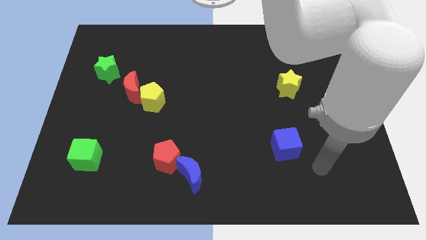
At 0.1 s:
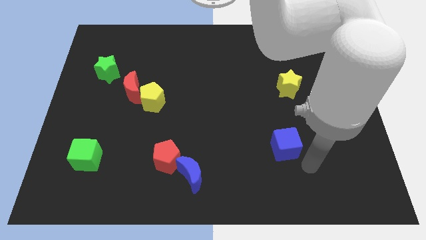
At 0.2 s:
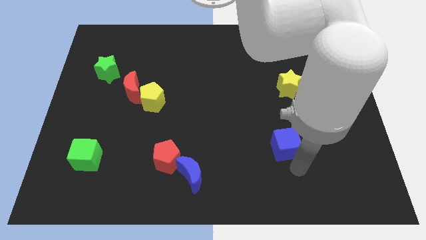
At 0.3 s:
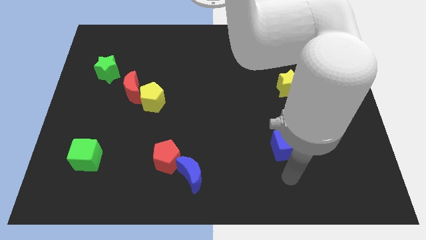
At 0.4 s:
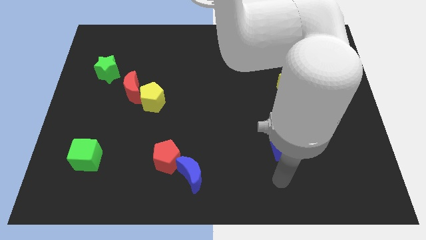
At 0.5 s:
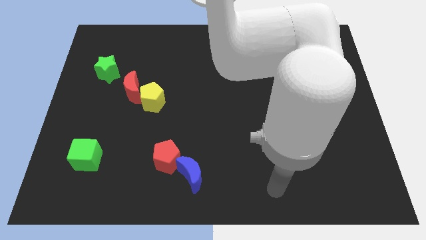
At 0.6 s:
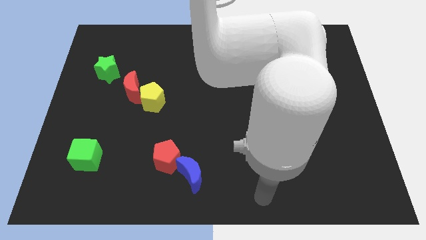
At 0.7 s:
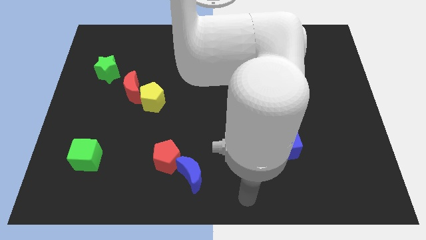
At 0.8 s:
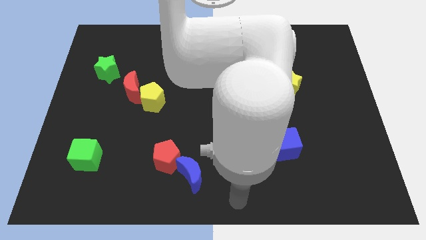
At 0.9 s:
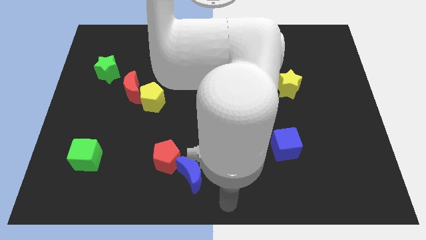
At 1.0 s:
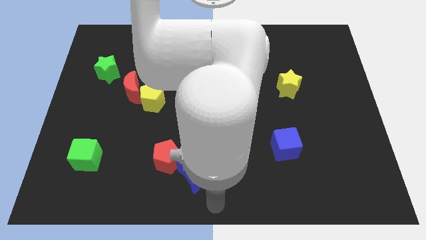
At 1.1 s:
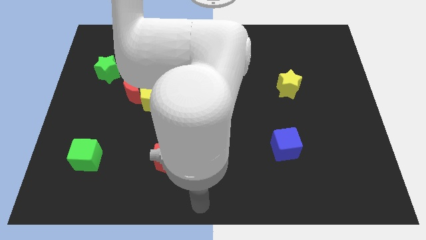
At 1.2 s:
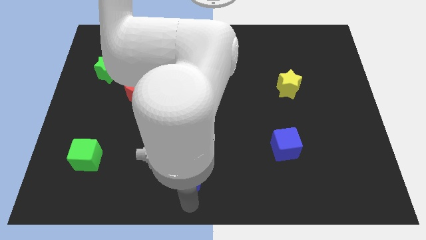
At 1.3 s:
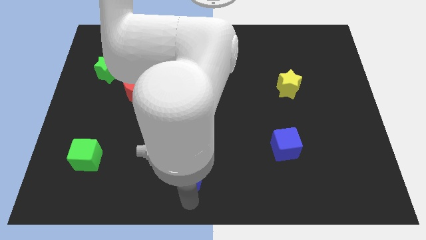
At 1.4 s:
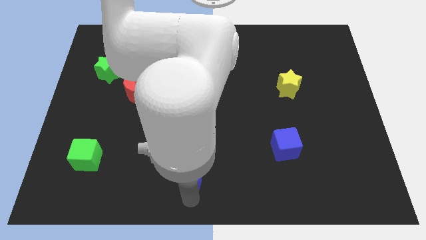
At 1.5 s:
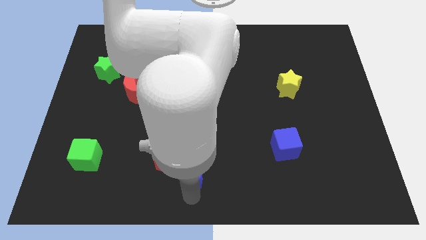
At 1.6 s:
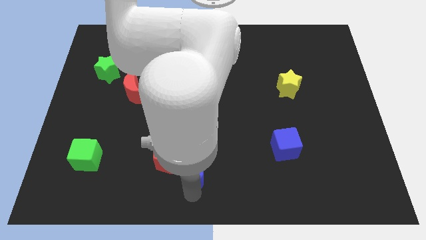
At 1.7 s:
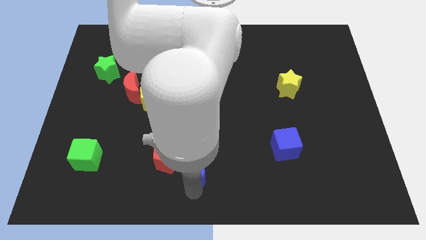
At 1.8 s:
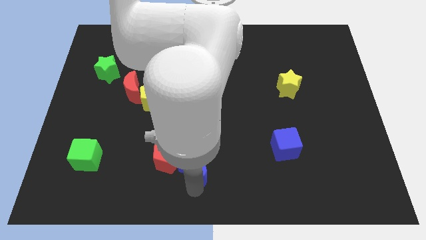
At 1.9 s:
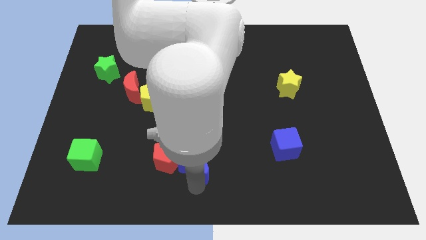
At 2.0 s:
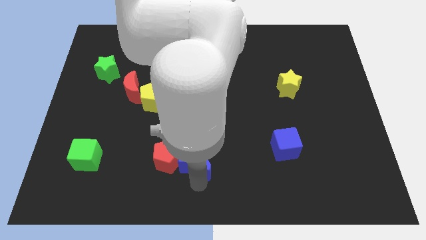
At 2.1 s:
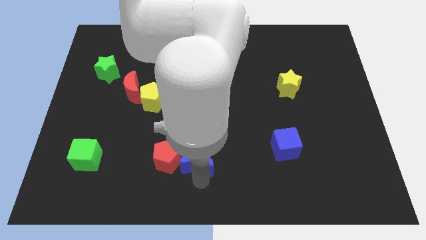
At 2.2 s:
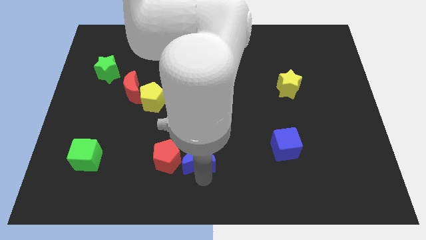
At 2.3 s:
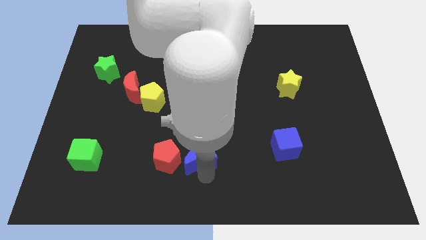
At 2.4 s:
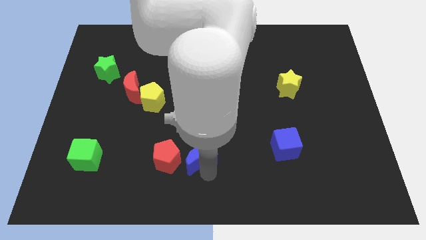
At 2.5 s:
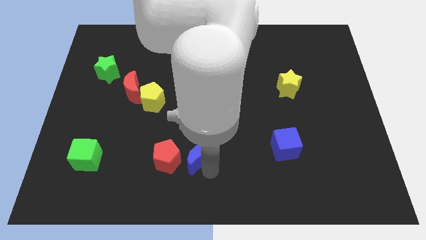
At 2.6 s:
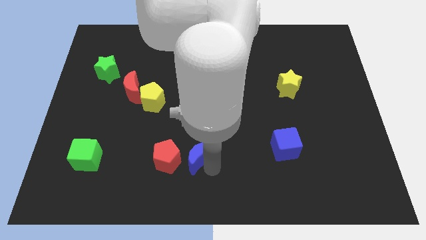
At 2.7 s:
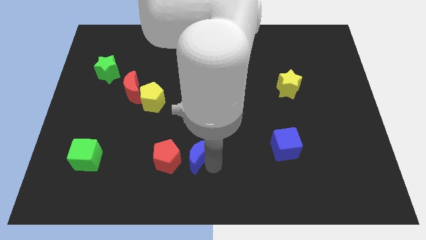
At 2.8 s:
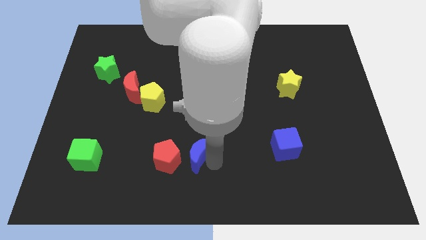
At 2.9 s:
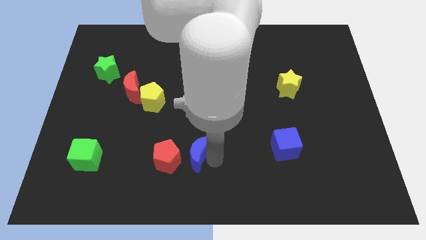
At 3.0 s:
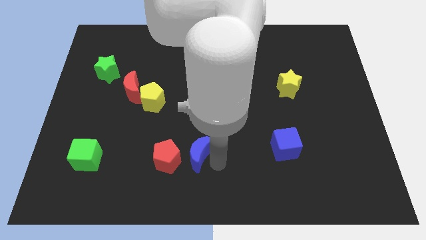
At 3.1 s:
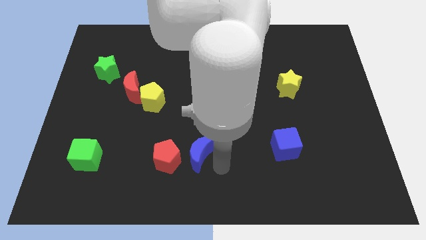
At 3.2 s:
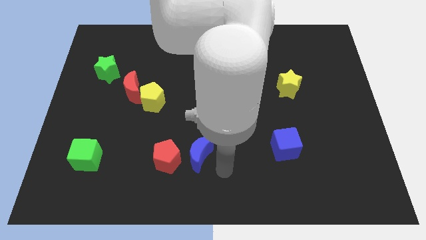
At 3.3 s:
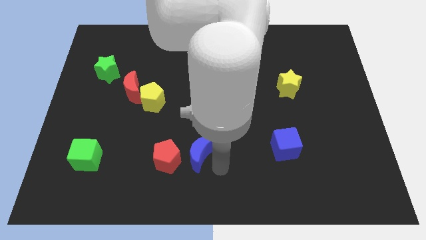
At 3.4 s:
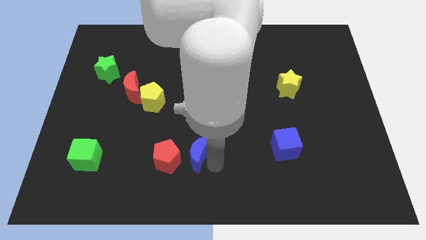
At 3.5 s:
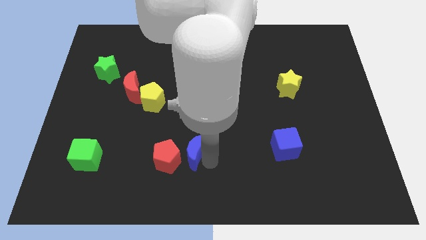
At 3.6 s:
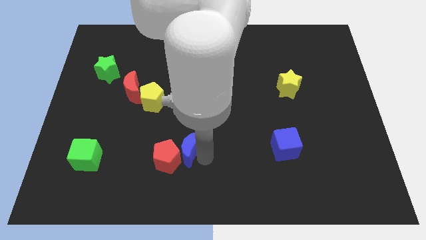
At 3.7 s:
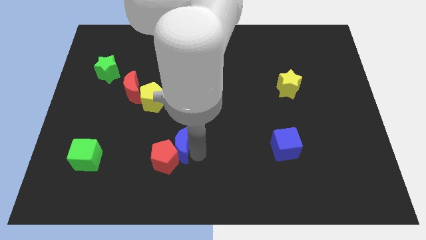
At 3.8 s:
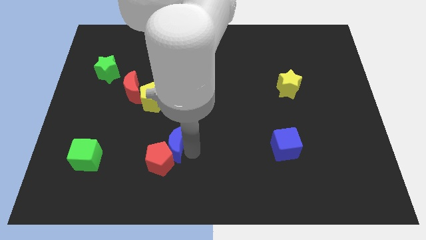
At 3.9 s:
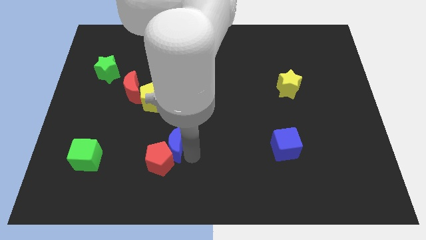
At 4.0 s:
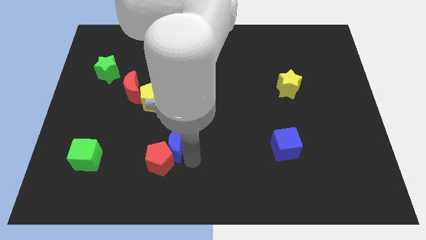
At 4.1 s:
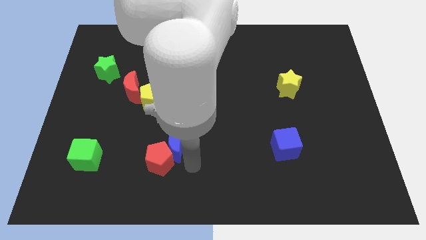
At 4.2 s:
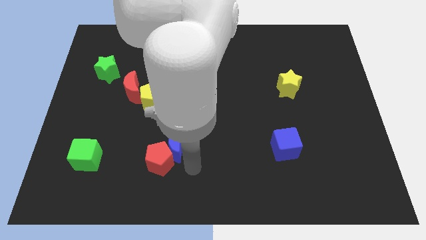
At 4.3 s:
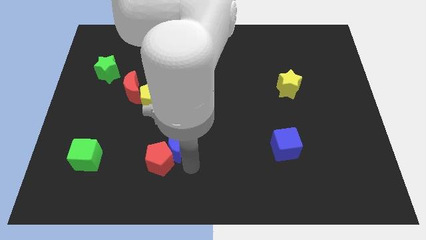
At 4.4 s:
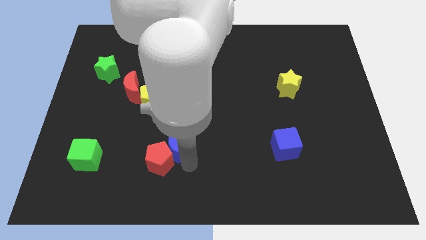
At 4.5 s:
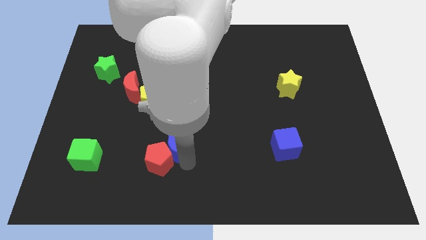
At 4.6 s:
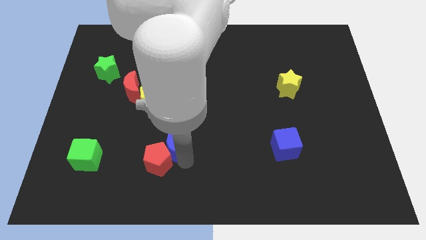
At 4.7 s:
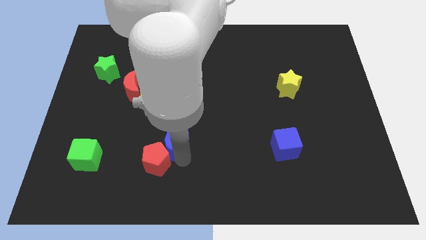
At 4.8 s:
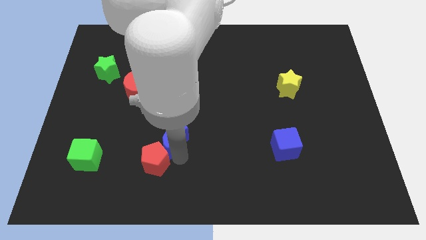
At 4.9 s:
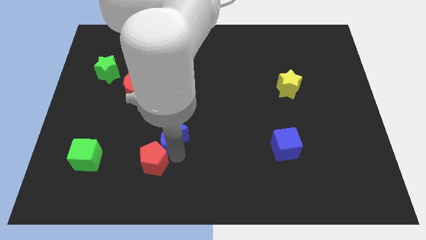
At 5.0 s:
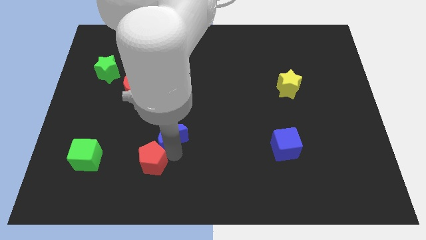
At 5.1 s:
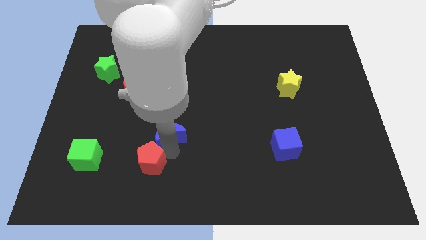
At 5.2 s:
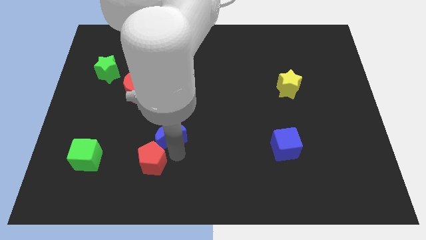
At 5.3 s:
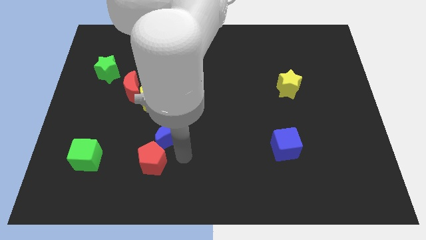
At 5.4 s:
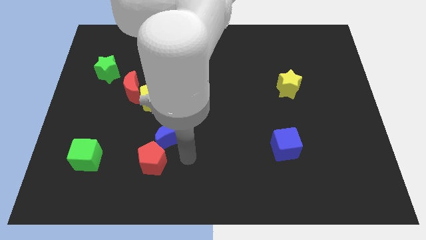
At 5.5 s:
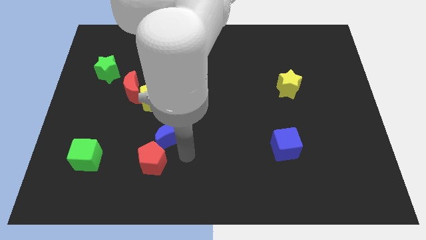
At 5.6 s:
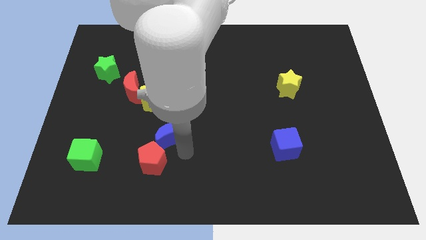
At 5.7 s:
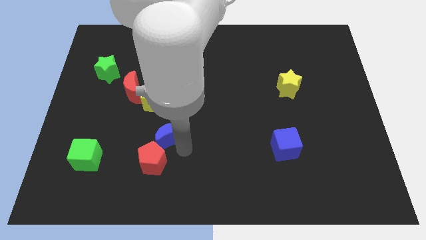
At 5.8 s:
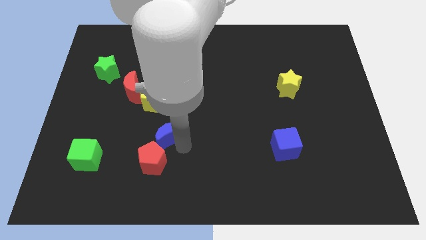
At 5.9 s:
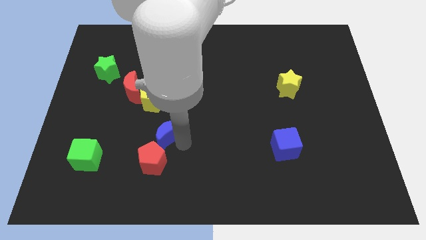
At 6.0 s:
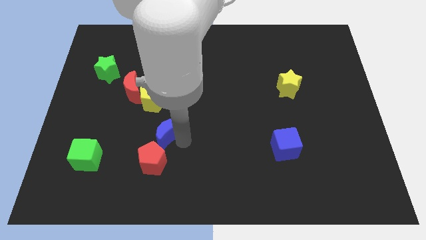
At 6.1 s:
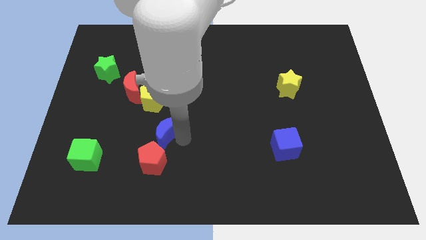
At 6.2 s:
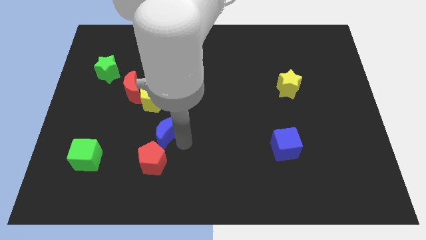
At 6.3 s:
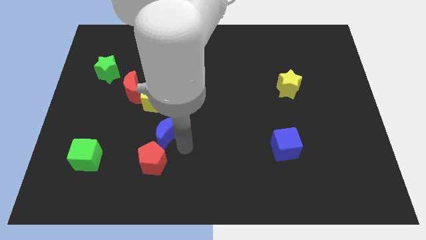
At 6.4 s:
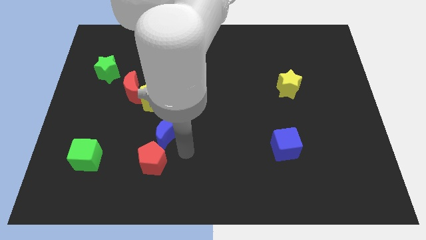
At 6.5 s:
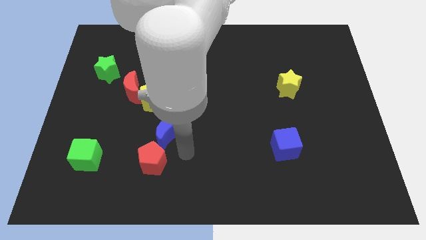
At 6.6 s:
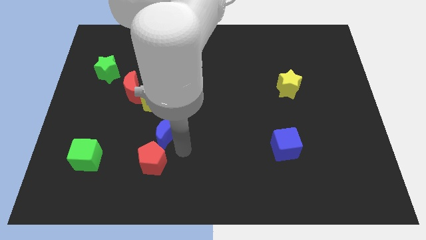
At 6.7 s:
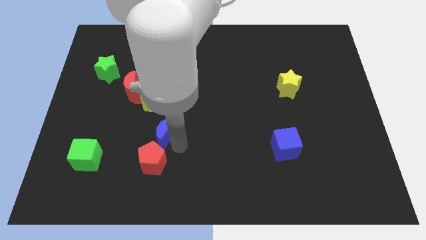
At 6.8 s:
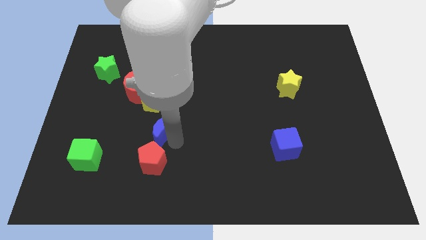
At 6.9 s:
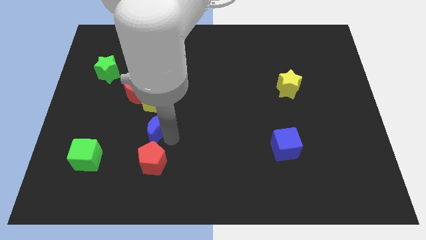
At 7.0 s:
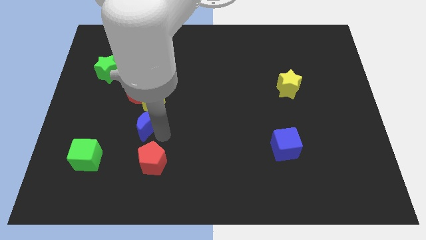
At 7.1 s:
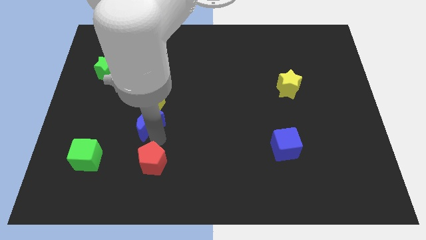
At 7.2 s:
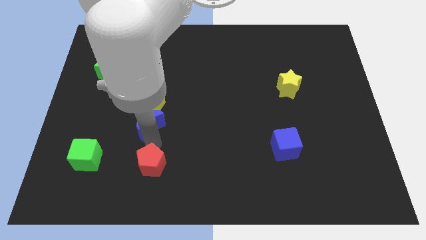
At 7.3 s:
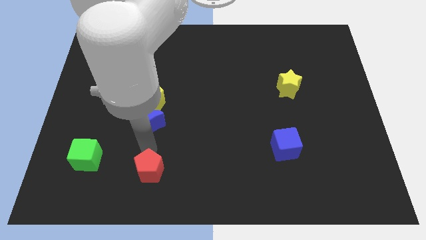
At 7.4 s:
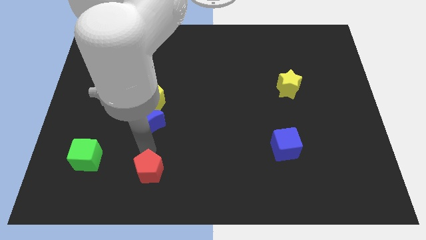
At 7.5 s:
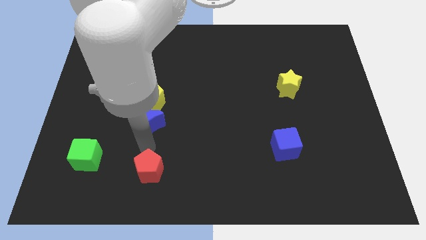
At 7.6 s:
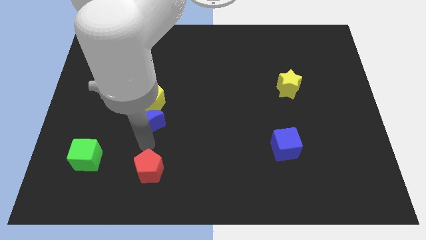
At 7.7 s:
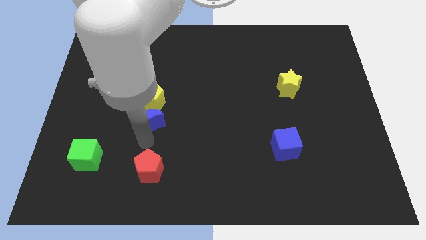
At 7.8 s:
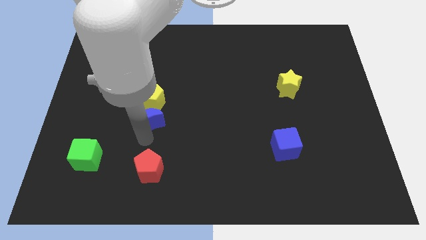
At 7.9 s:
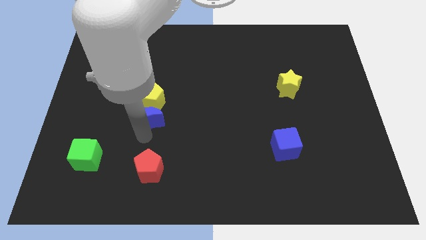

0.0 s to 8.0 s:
slide the blue moon next to the yellow pentagon
